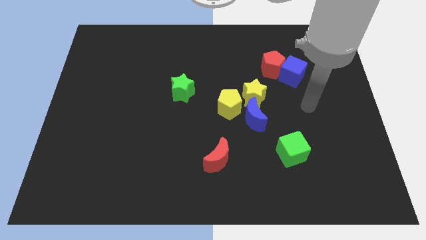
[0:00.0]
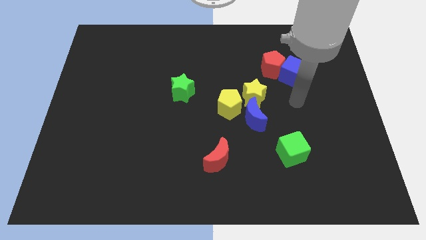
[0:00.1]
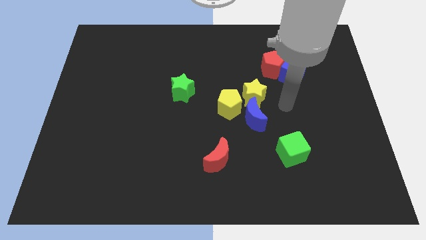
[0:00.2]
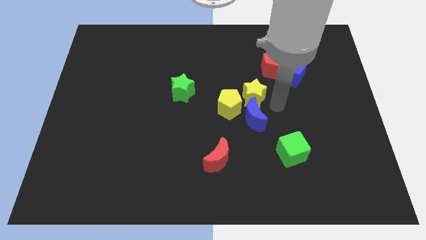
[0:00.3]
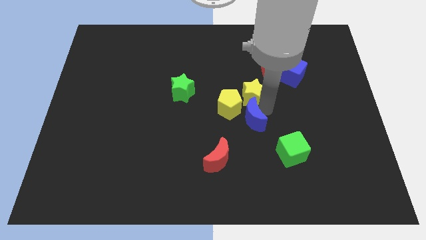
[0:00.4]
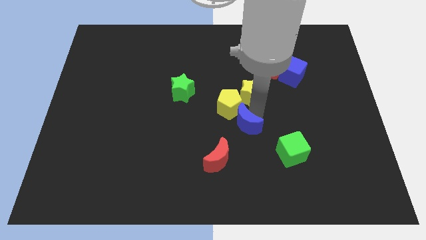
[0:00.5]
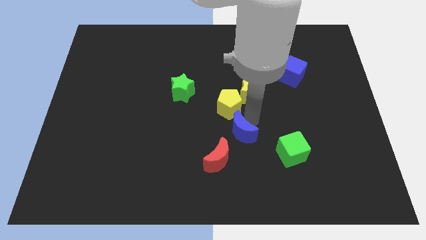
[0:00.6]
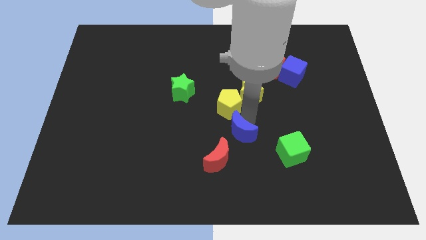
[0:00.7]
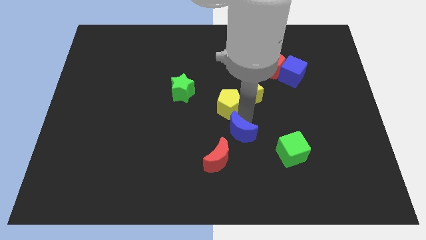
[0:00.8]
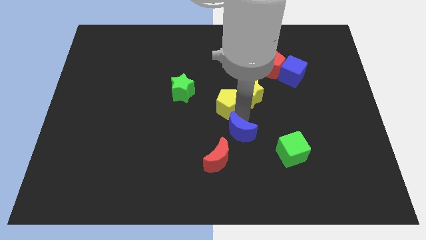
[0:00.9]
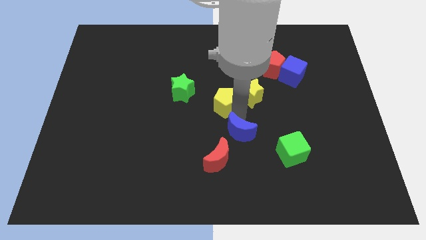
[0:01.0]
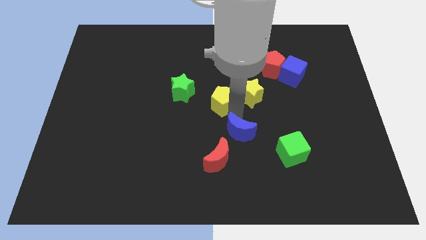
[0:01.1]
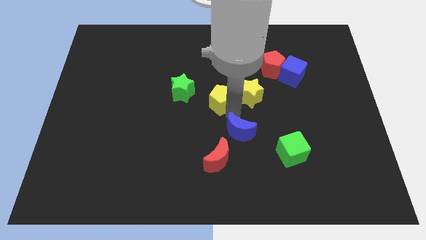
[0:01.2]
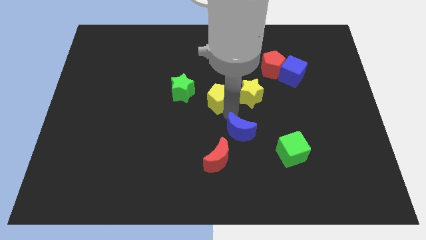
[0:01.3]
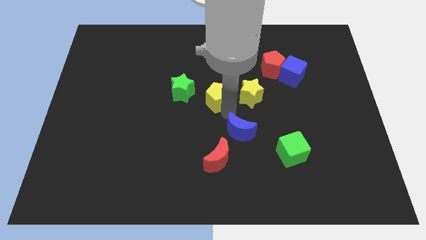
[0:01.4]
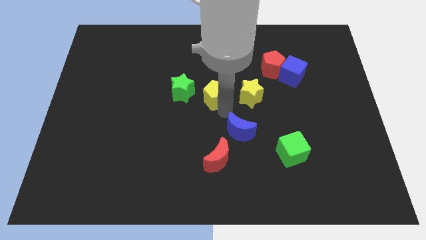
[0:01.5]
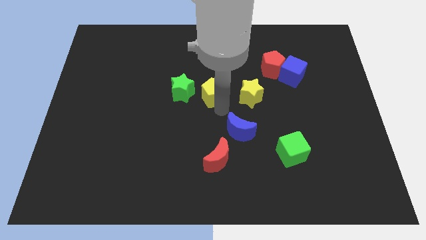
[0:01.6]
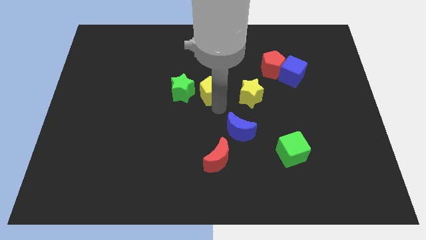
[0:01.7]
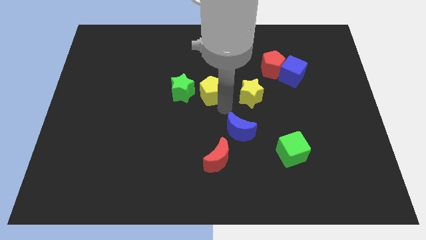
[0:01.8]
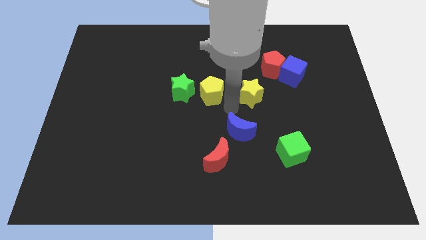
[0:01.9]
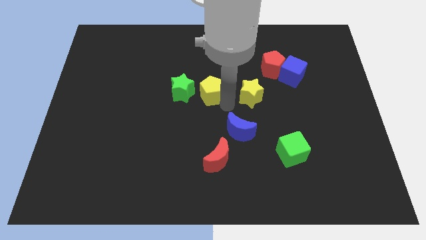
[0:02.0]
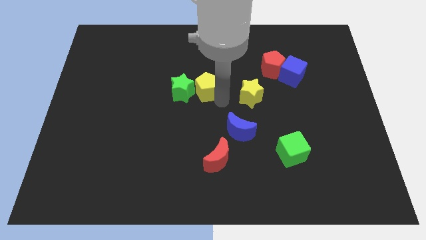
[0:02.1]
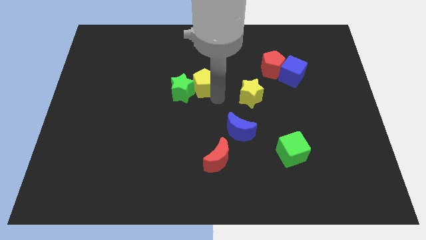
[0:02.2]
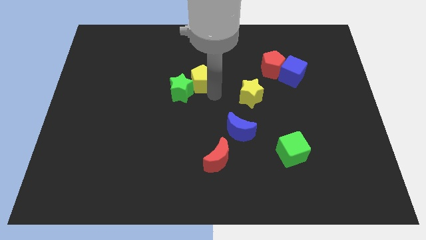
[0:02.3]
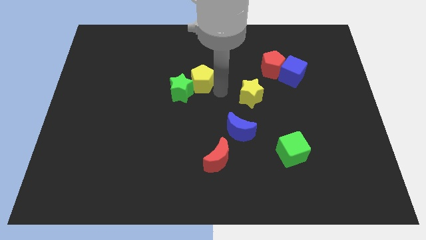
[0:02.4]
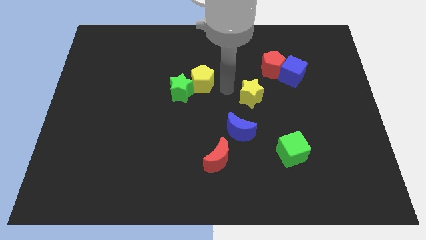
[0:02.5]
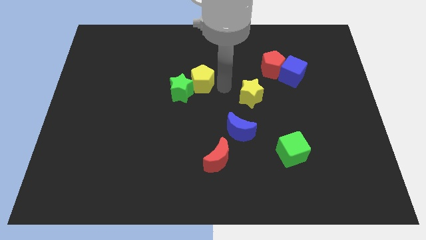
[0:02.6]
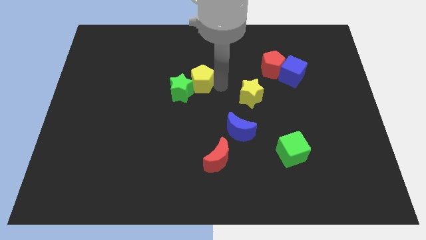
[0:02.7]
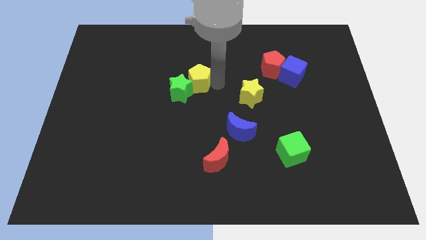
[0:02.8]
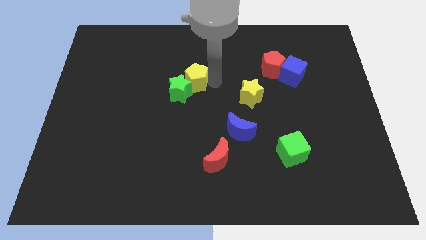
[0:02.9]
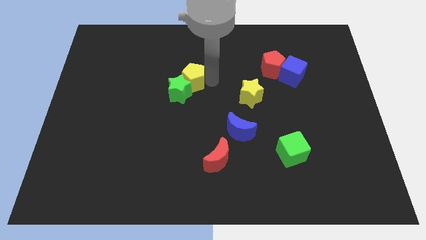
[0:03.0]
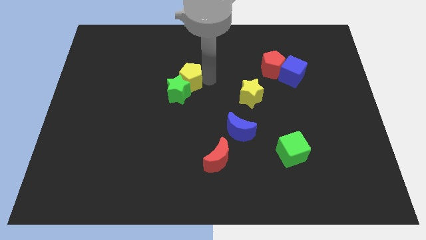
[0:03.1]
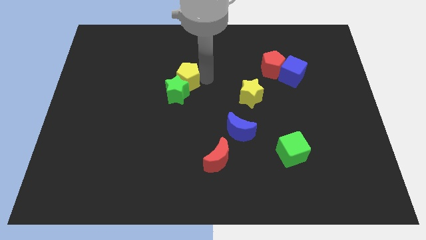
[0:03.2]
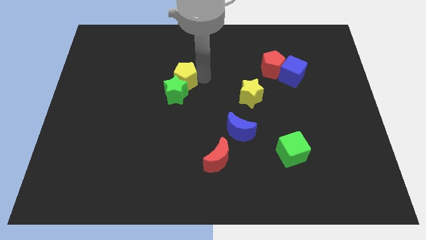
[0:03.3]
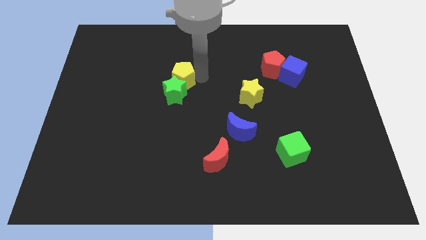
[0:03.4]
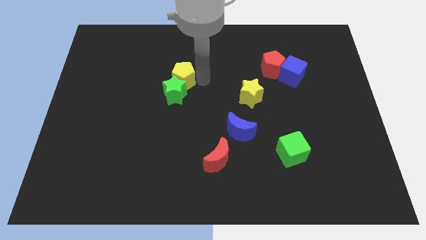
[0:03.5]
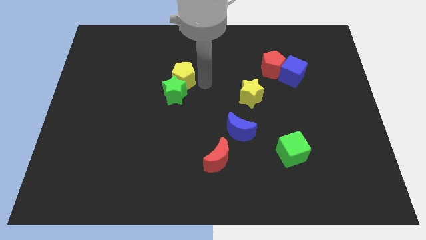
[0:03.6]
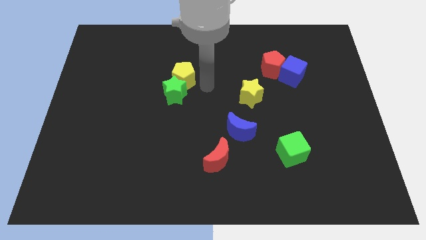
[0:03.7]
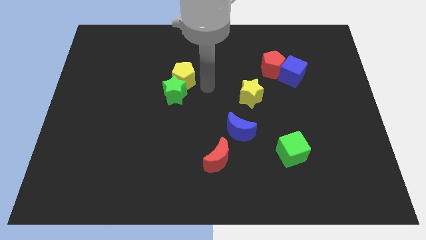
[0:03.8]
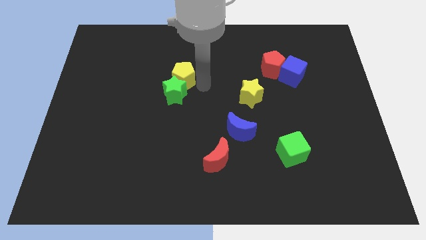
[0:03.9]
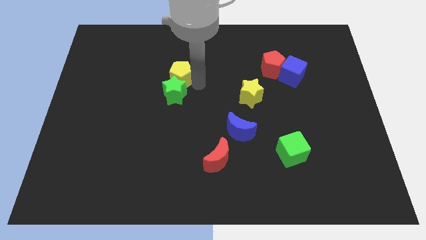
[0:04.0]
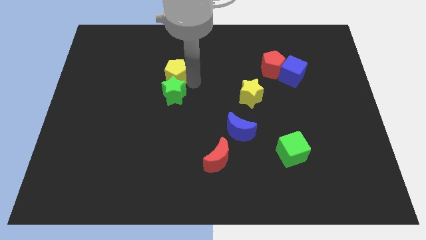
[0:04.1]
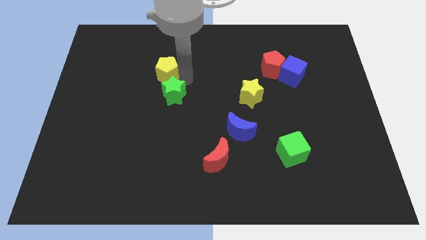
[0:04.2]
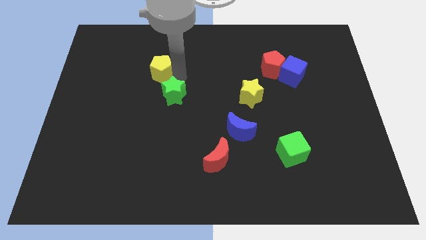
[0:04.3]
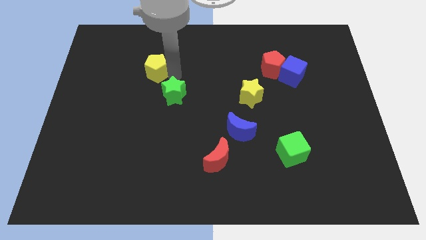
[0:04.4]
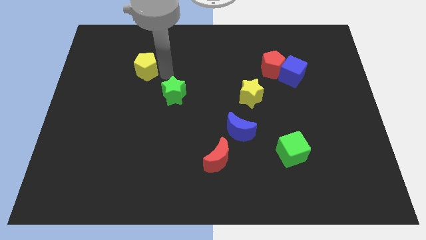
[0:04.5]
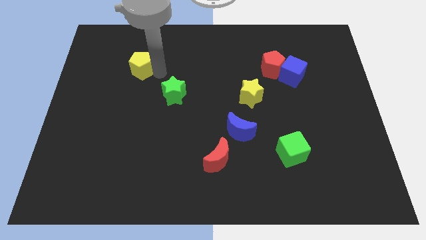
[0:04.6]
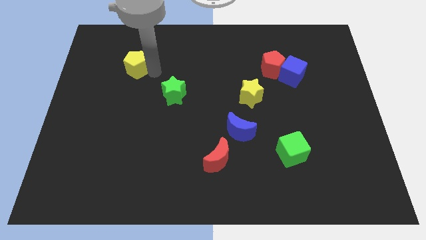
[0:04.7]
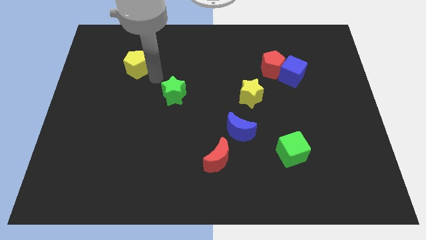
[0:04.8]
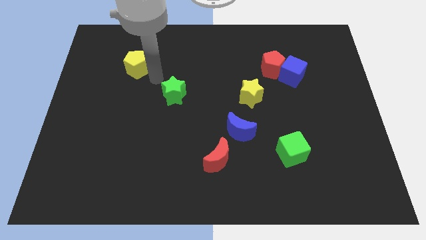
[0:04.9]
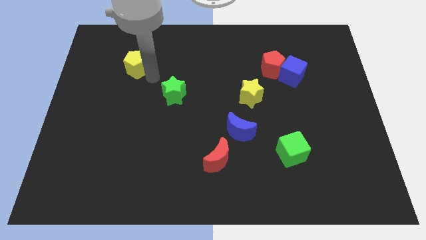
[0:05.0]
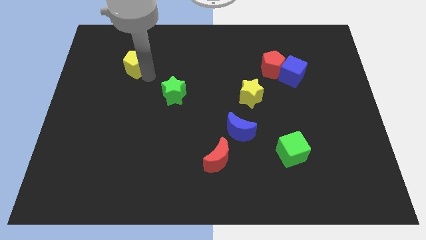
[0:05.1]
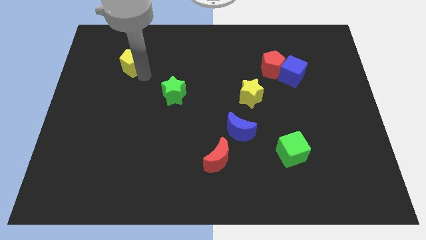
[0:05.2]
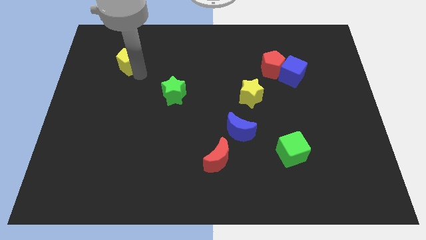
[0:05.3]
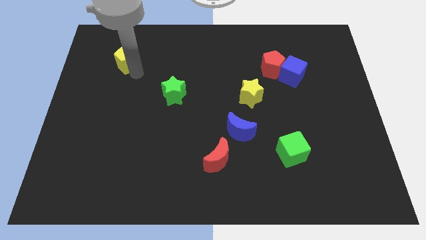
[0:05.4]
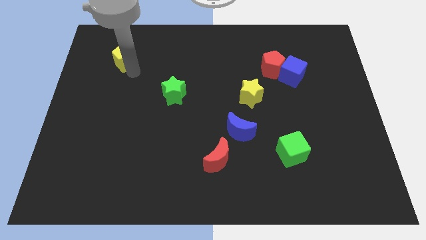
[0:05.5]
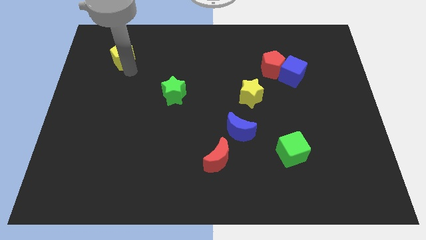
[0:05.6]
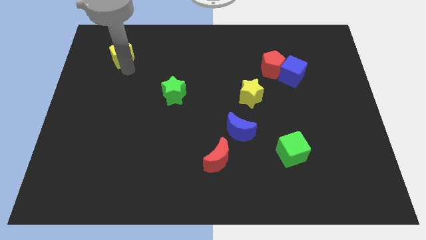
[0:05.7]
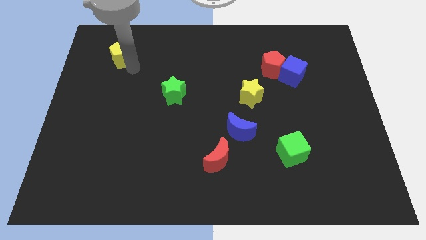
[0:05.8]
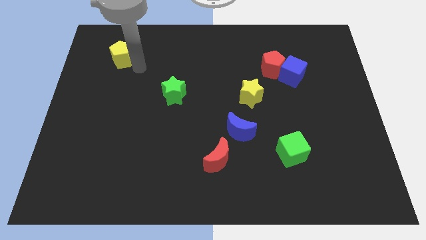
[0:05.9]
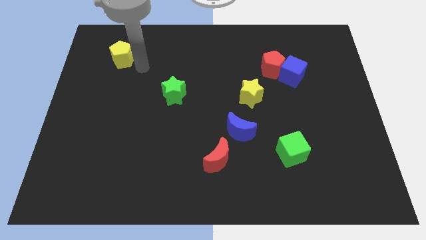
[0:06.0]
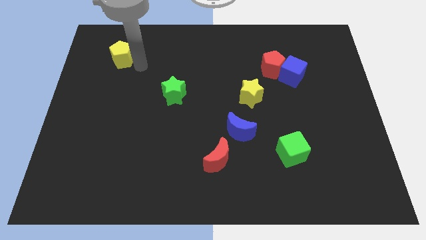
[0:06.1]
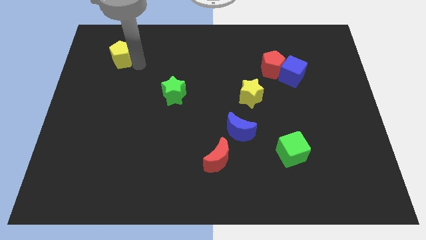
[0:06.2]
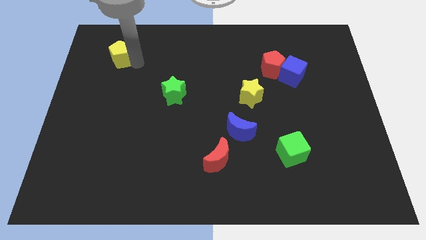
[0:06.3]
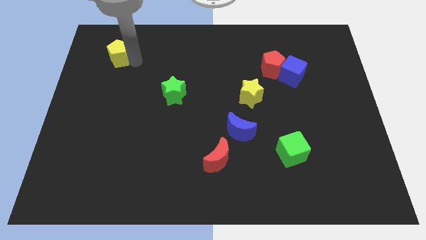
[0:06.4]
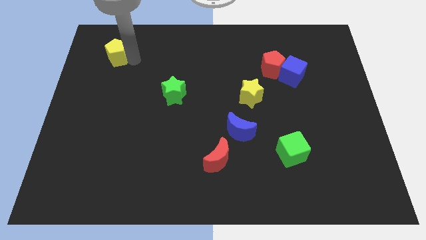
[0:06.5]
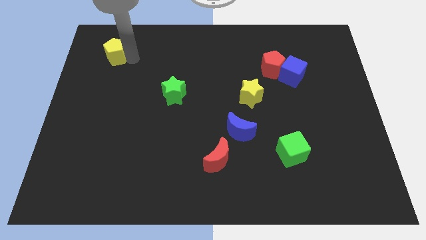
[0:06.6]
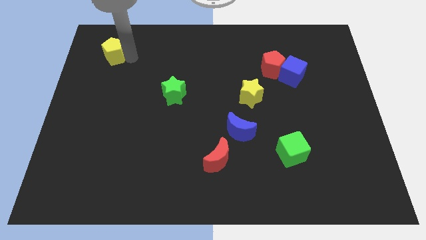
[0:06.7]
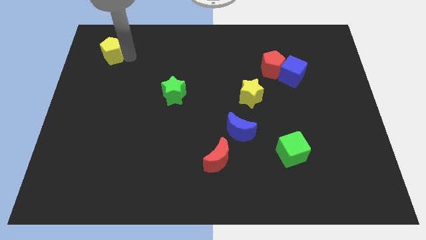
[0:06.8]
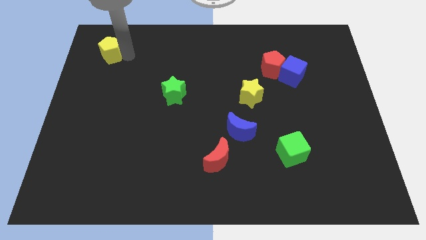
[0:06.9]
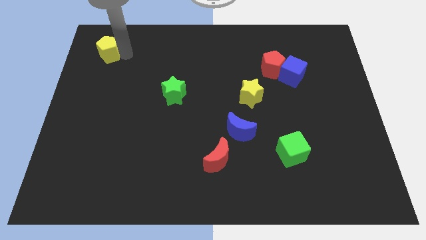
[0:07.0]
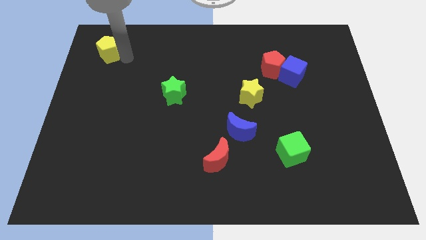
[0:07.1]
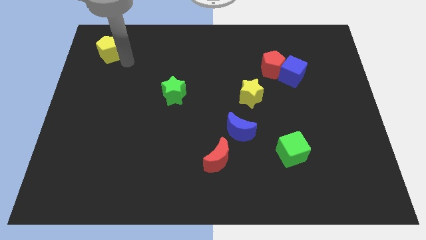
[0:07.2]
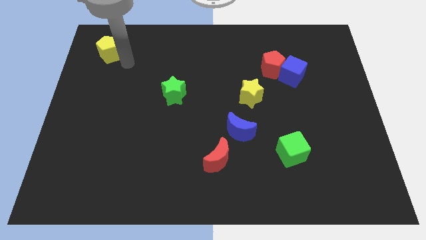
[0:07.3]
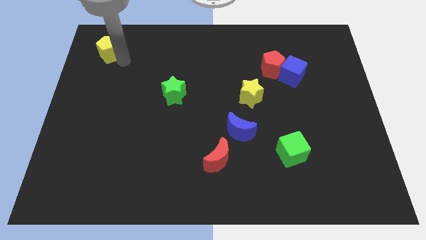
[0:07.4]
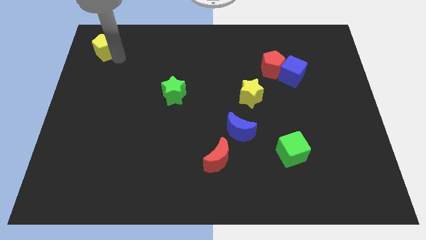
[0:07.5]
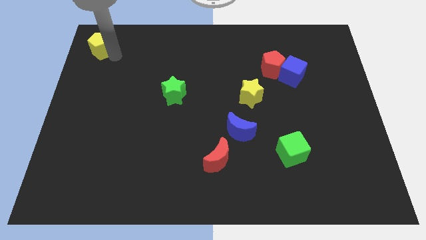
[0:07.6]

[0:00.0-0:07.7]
slide the yellow pentagon to the top left corner
